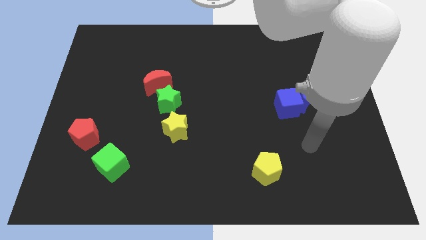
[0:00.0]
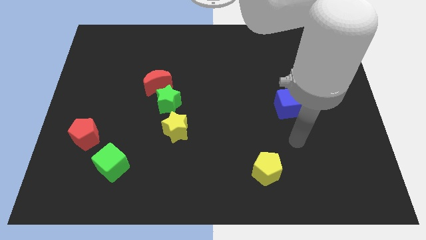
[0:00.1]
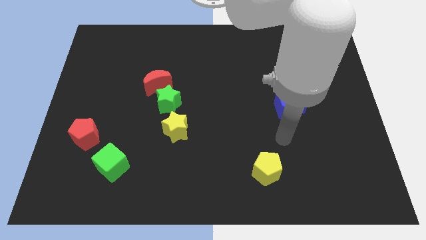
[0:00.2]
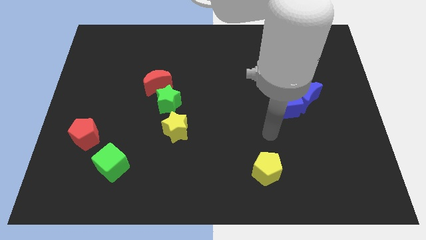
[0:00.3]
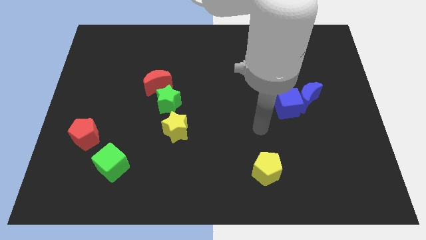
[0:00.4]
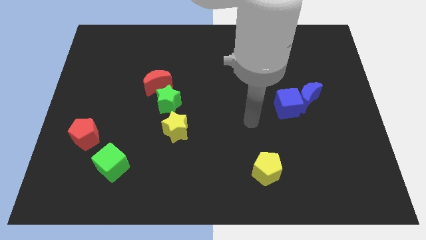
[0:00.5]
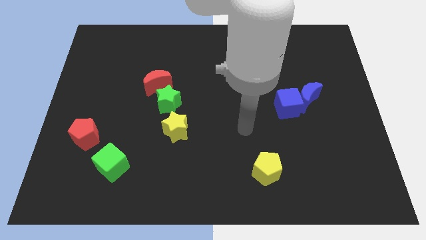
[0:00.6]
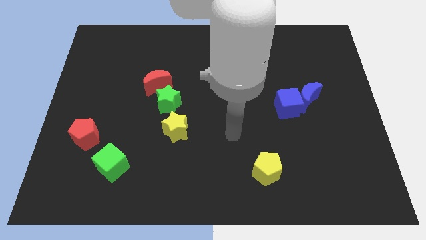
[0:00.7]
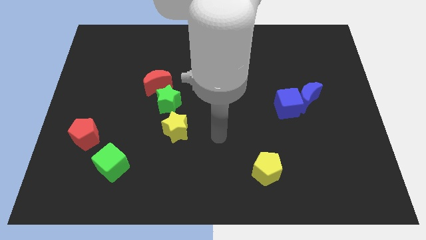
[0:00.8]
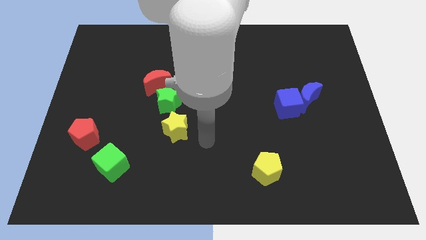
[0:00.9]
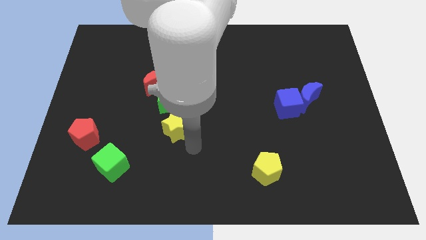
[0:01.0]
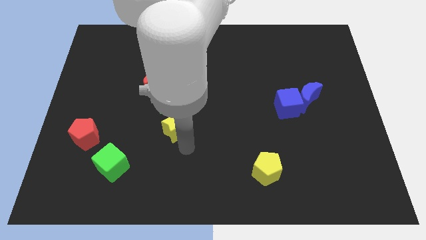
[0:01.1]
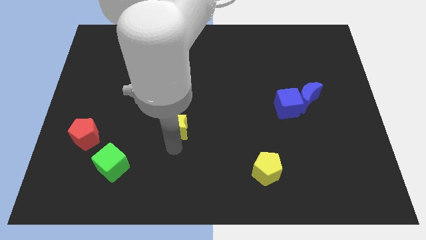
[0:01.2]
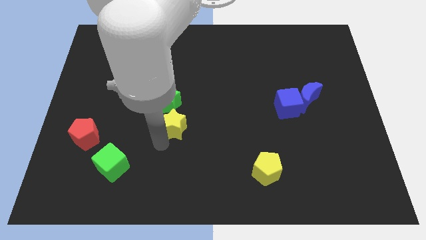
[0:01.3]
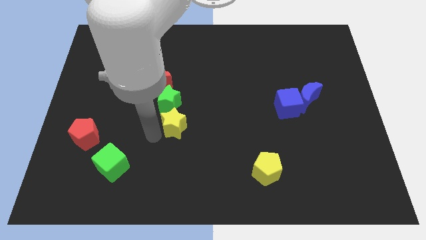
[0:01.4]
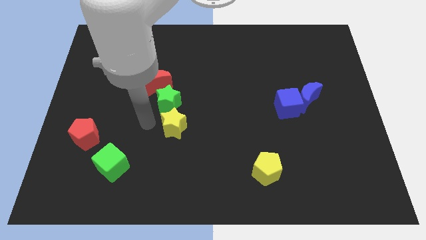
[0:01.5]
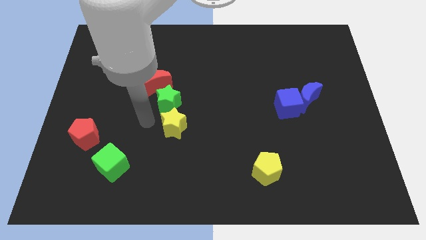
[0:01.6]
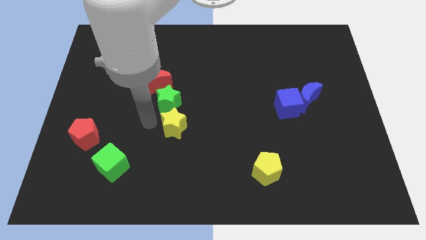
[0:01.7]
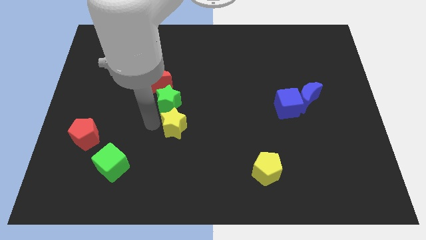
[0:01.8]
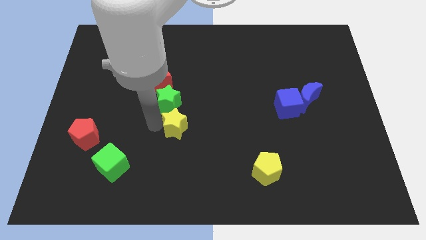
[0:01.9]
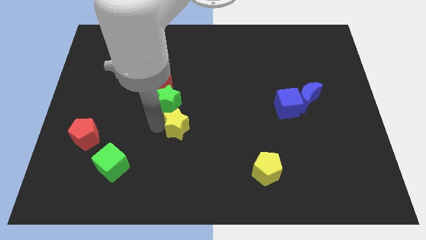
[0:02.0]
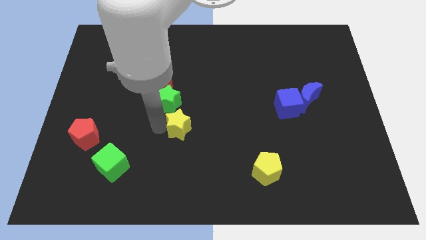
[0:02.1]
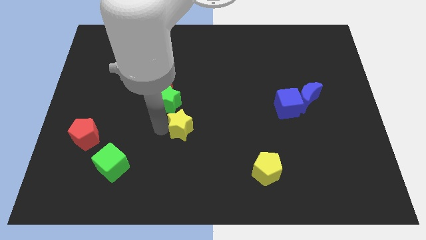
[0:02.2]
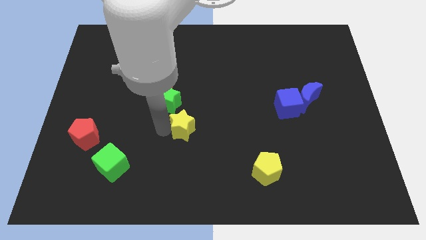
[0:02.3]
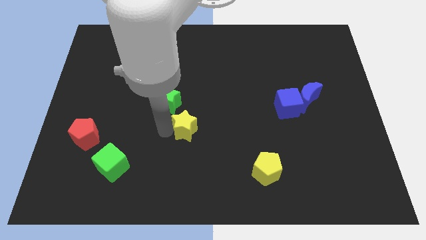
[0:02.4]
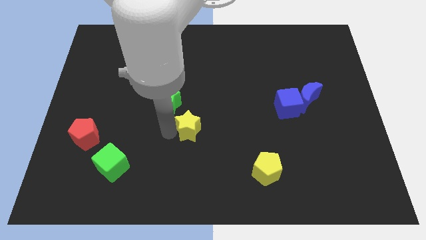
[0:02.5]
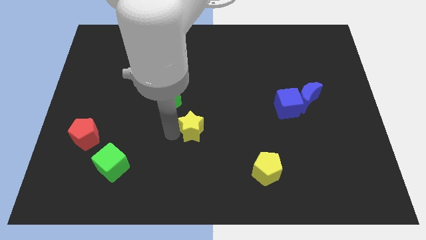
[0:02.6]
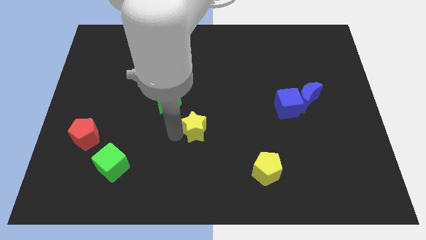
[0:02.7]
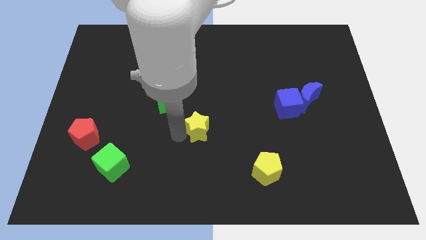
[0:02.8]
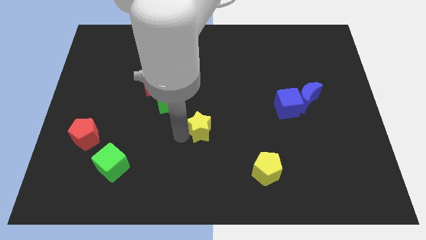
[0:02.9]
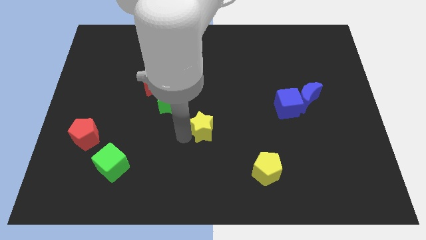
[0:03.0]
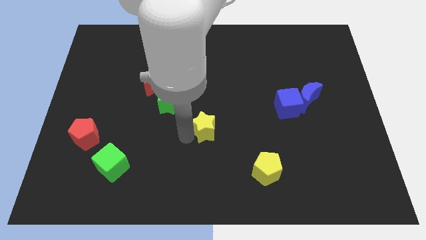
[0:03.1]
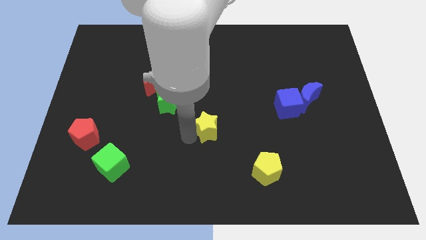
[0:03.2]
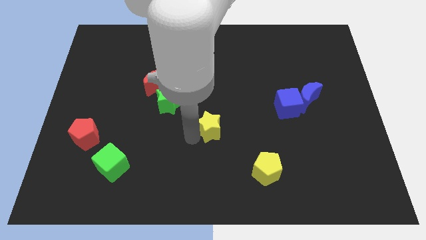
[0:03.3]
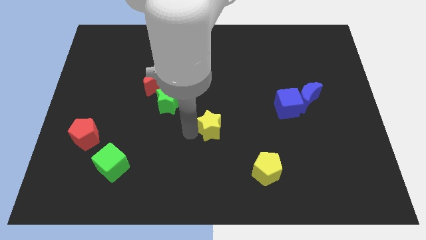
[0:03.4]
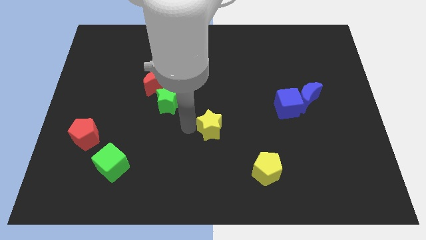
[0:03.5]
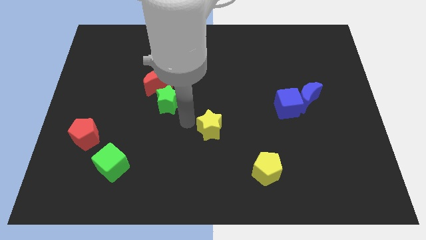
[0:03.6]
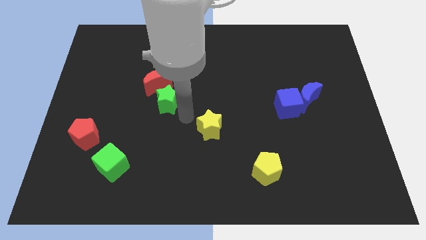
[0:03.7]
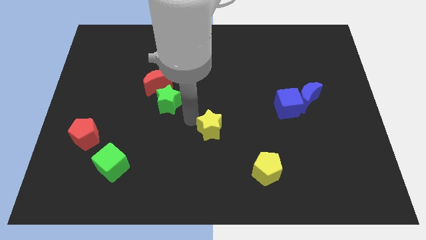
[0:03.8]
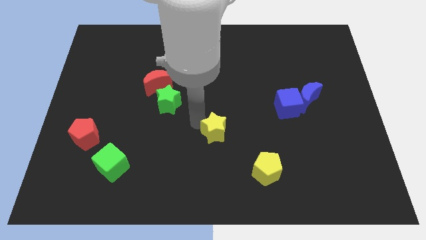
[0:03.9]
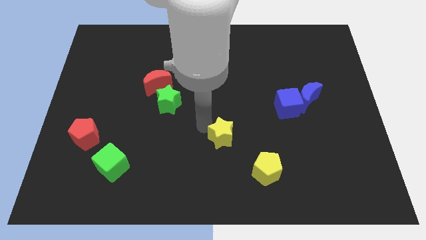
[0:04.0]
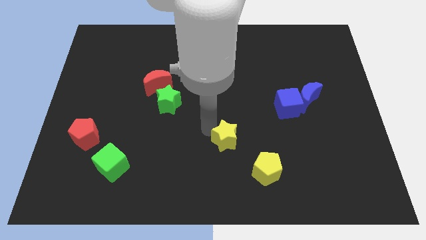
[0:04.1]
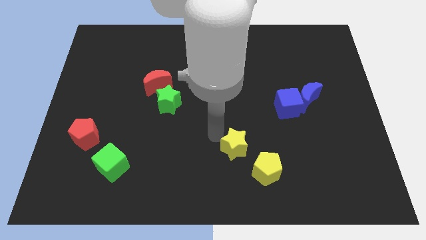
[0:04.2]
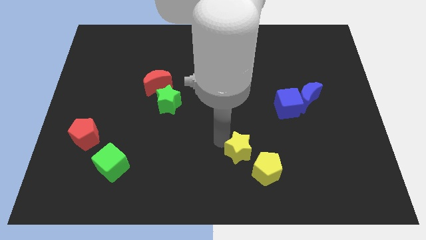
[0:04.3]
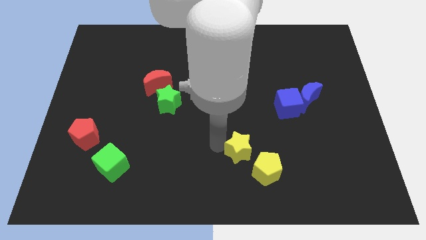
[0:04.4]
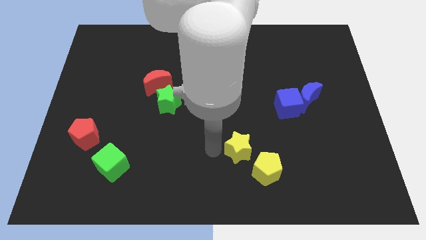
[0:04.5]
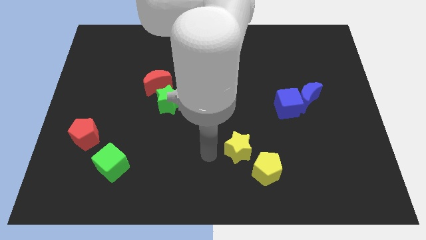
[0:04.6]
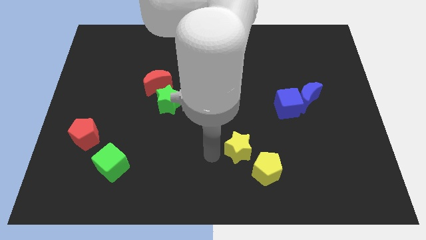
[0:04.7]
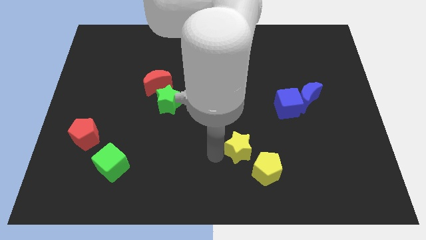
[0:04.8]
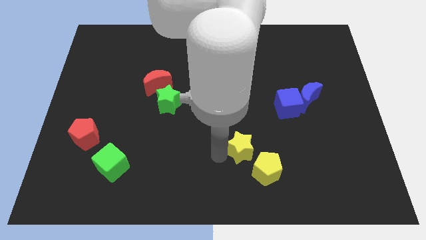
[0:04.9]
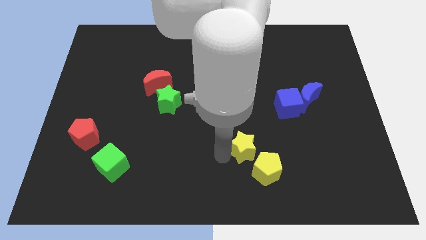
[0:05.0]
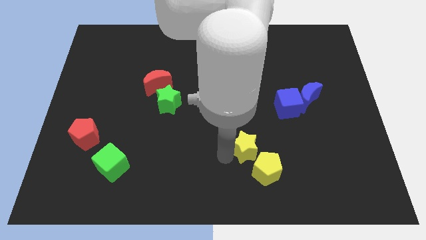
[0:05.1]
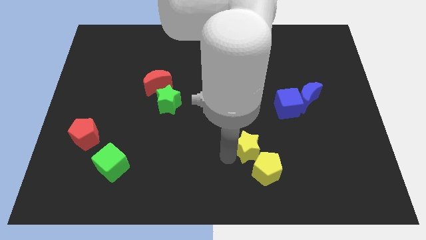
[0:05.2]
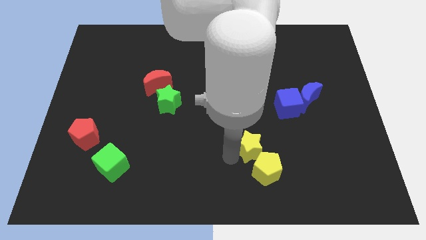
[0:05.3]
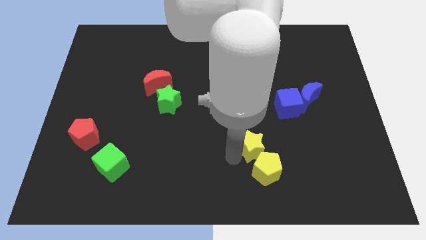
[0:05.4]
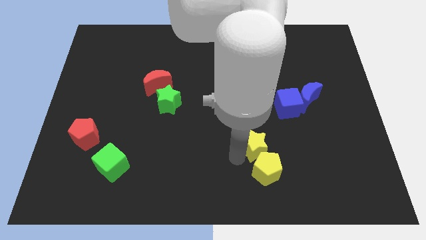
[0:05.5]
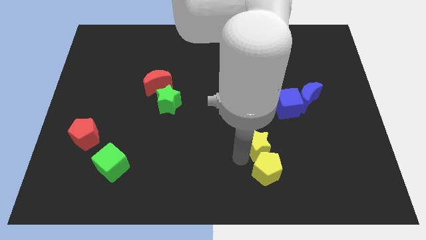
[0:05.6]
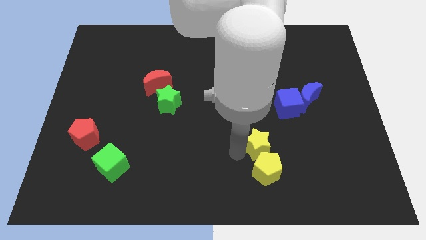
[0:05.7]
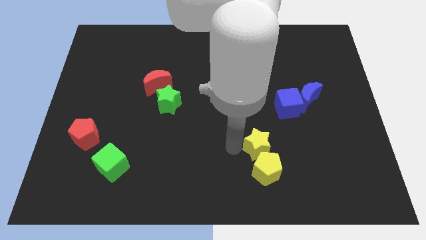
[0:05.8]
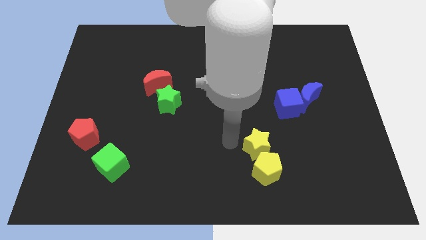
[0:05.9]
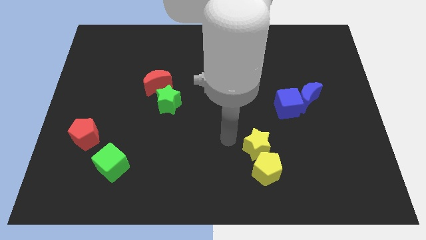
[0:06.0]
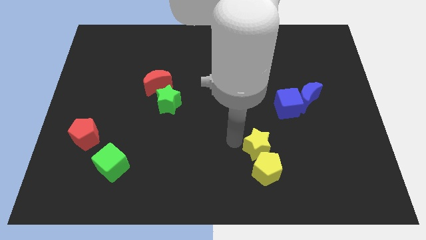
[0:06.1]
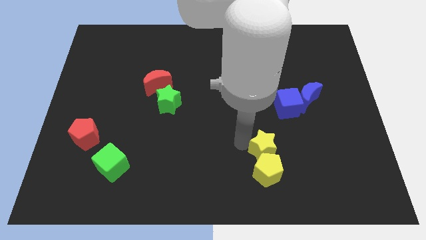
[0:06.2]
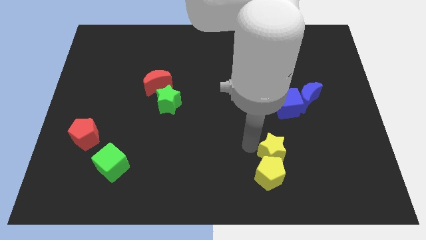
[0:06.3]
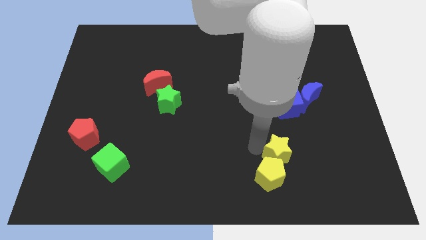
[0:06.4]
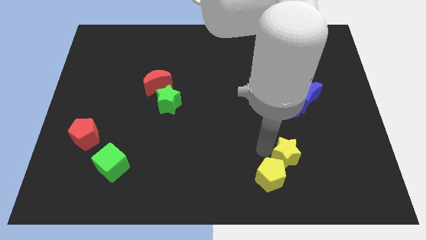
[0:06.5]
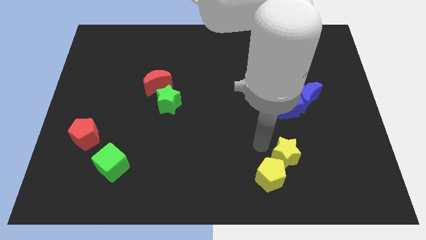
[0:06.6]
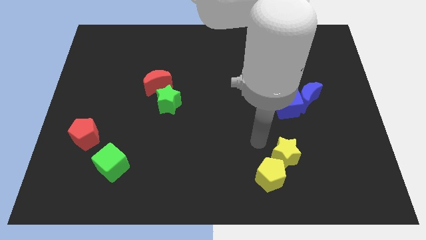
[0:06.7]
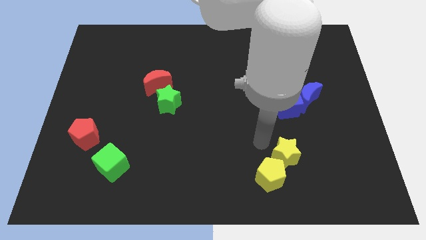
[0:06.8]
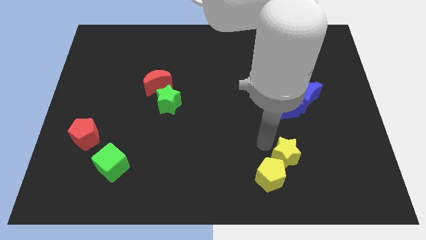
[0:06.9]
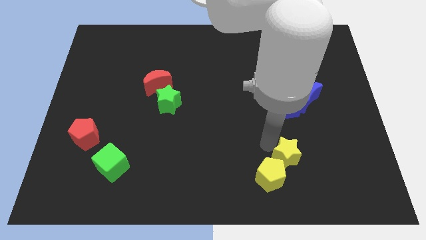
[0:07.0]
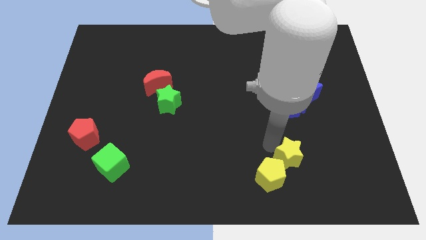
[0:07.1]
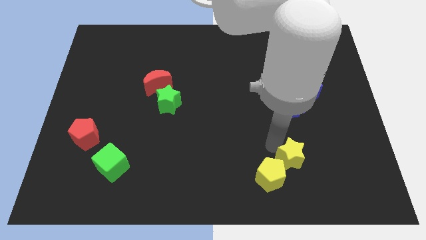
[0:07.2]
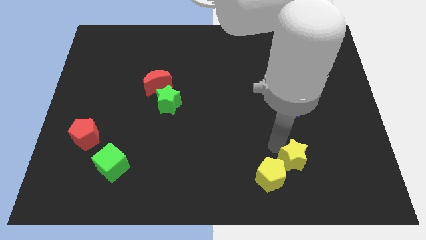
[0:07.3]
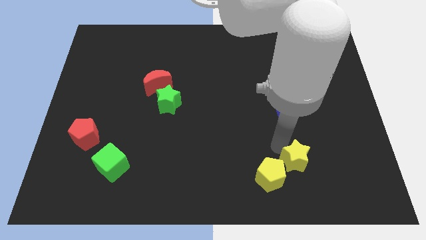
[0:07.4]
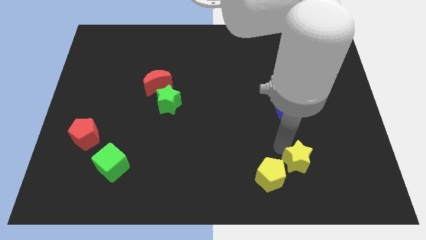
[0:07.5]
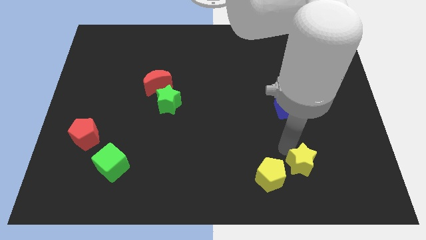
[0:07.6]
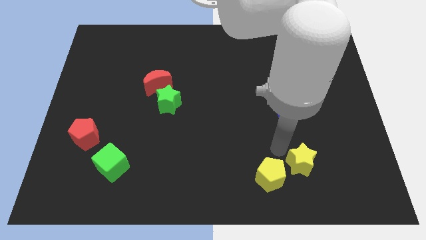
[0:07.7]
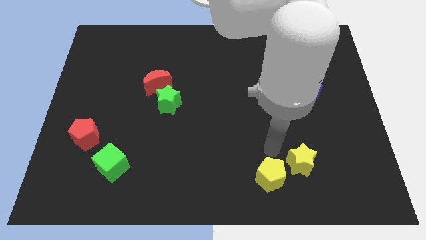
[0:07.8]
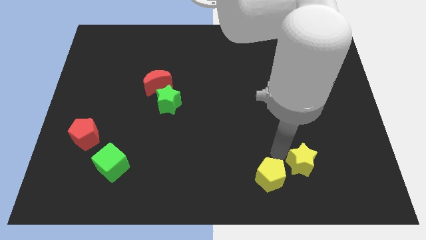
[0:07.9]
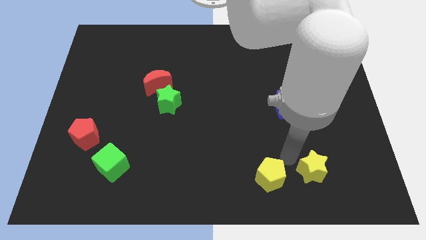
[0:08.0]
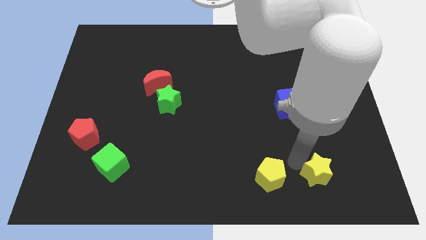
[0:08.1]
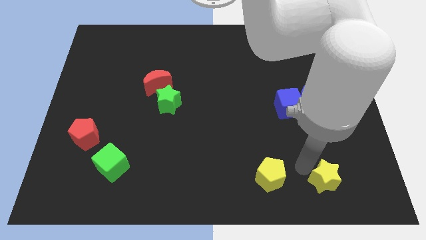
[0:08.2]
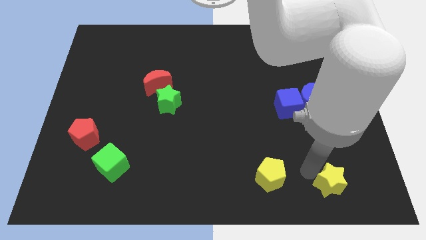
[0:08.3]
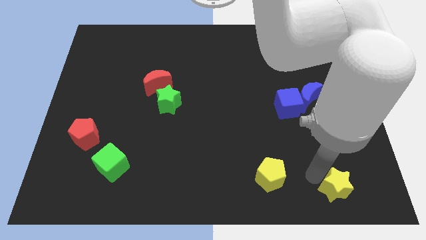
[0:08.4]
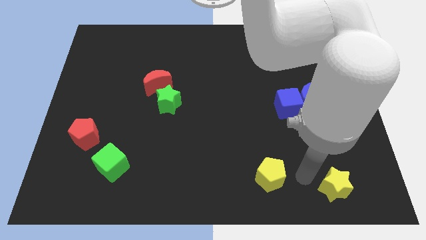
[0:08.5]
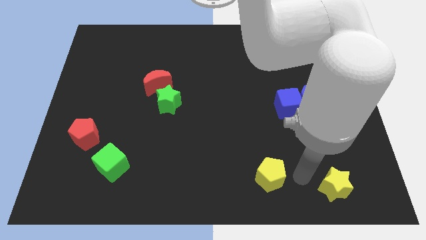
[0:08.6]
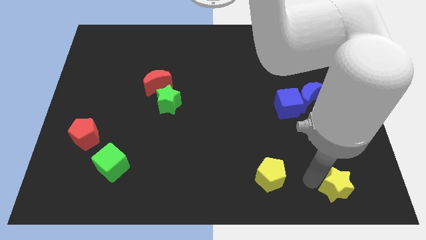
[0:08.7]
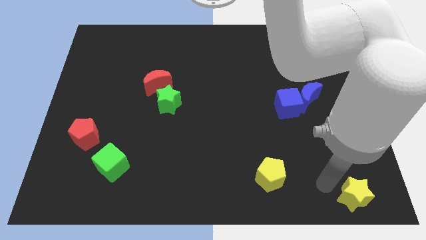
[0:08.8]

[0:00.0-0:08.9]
move the yellow star to the lower right corner
